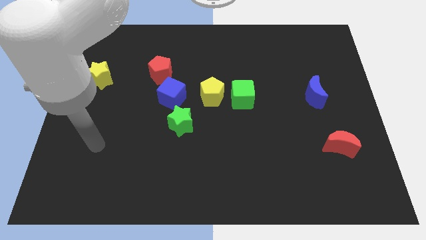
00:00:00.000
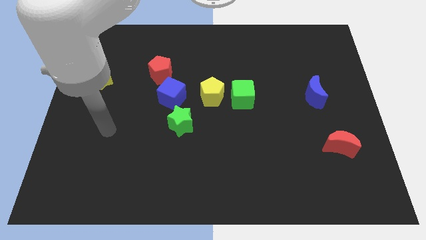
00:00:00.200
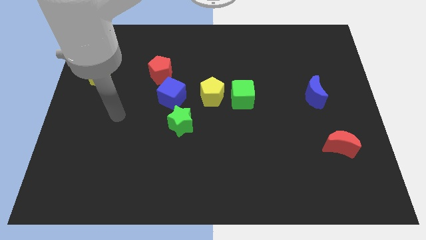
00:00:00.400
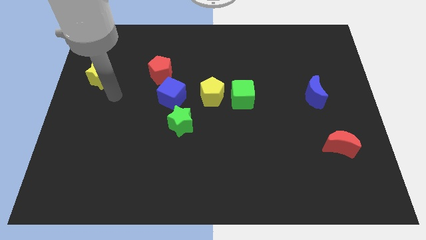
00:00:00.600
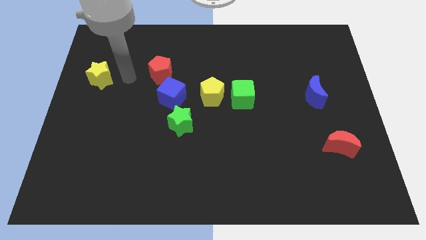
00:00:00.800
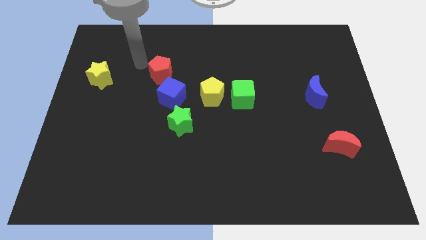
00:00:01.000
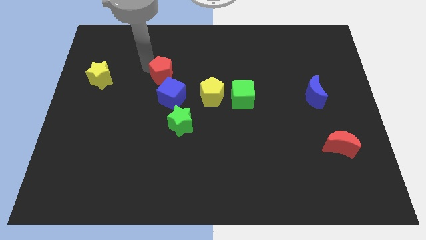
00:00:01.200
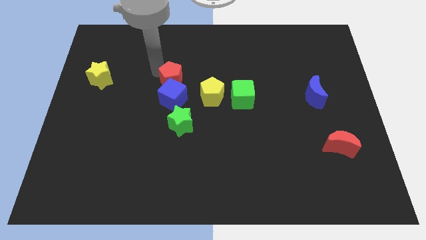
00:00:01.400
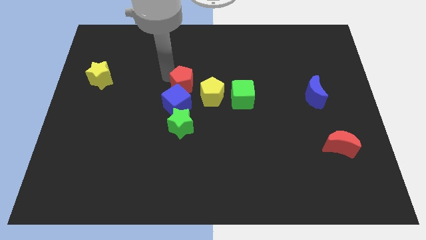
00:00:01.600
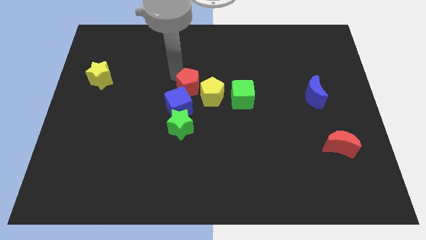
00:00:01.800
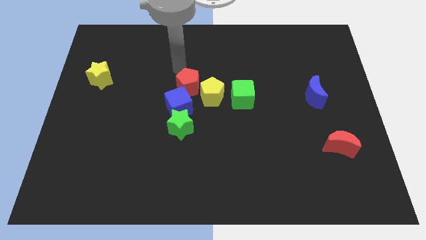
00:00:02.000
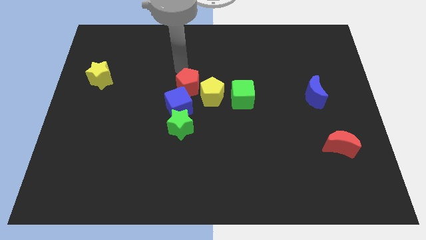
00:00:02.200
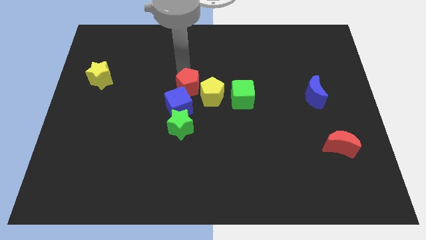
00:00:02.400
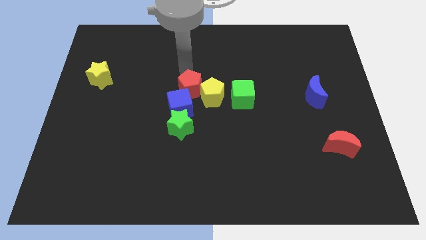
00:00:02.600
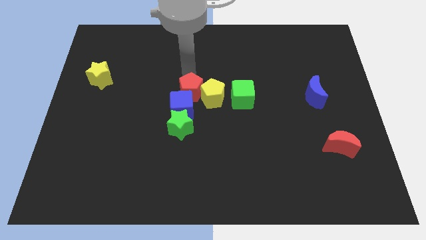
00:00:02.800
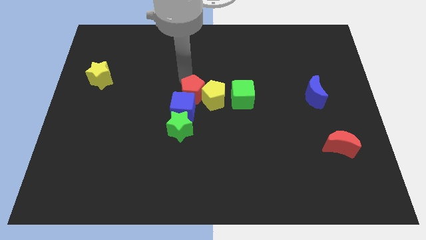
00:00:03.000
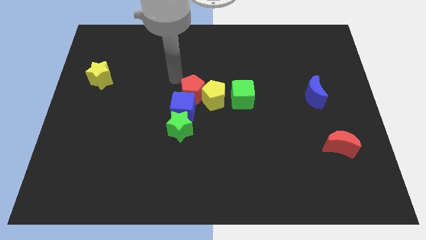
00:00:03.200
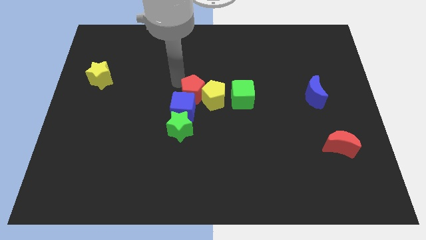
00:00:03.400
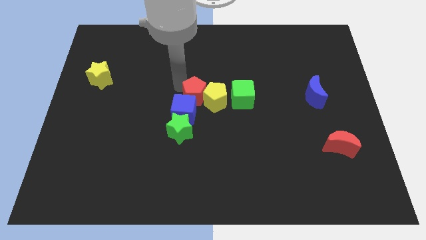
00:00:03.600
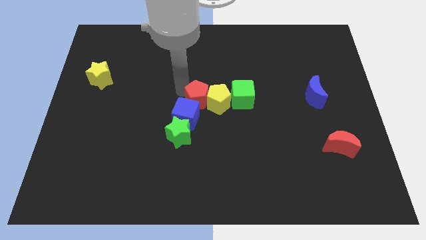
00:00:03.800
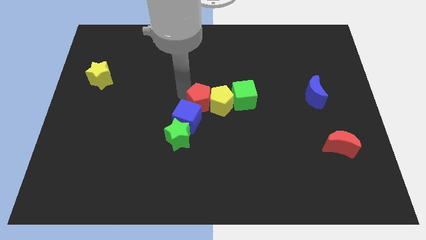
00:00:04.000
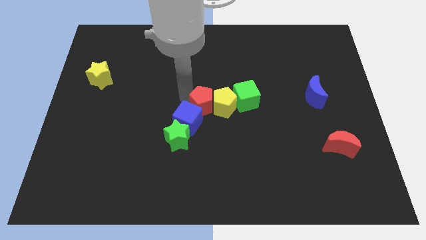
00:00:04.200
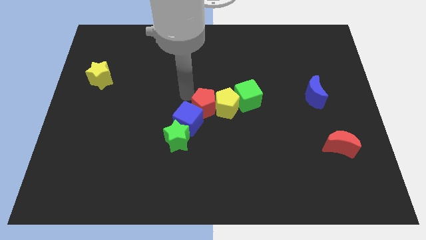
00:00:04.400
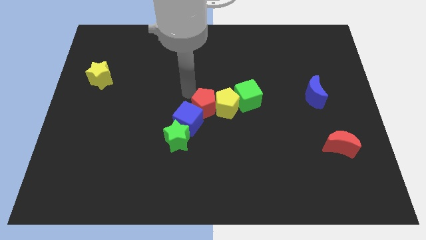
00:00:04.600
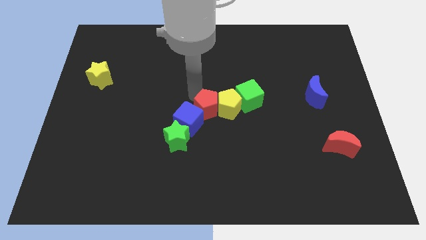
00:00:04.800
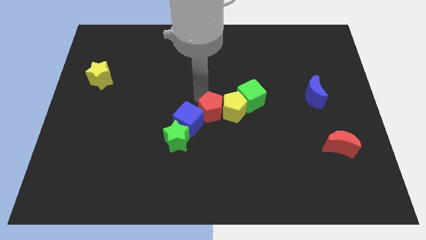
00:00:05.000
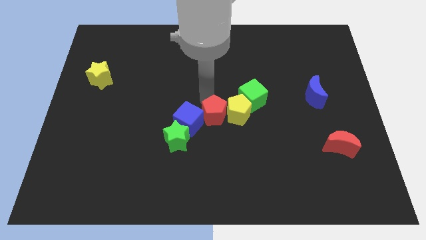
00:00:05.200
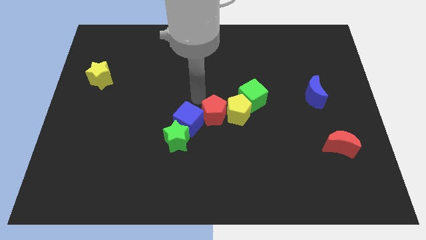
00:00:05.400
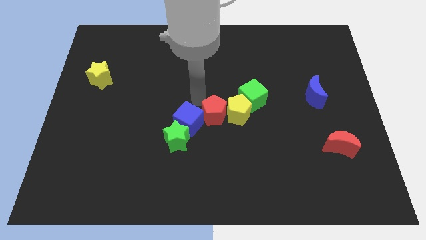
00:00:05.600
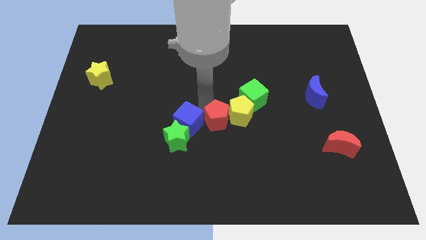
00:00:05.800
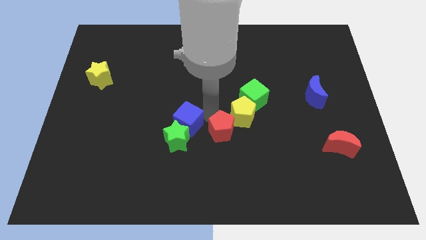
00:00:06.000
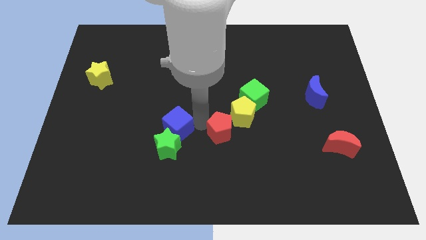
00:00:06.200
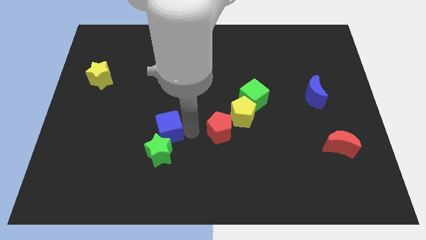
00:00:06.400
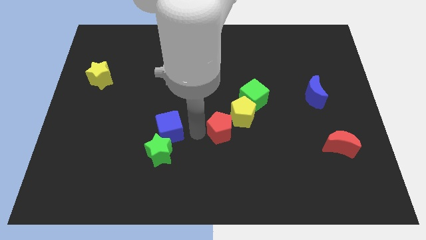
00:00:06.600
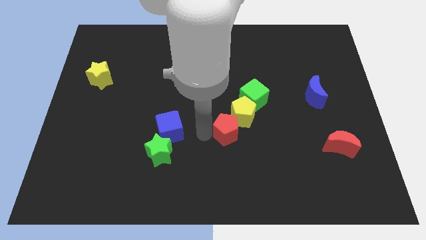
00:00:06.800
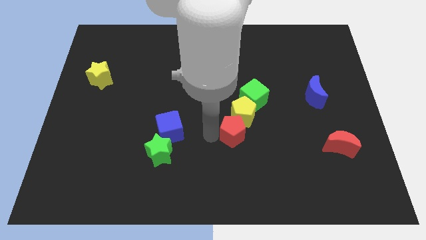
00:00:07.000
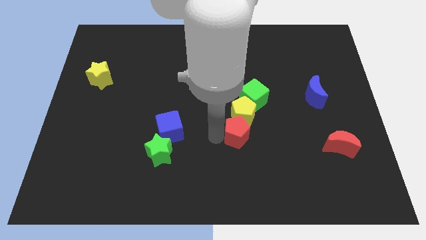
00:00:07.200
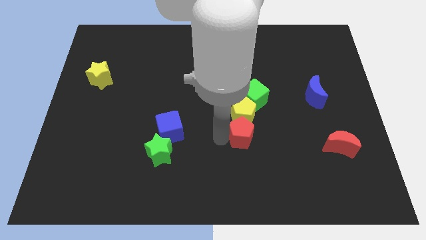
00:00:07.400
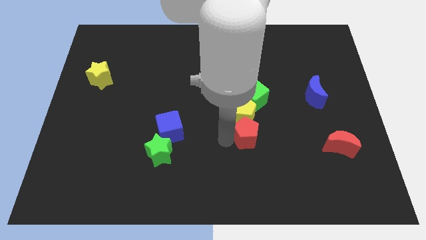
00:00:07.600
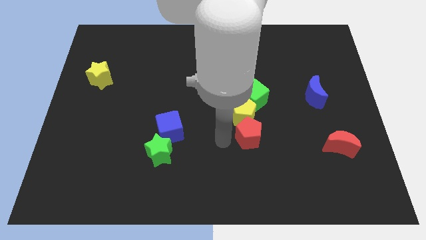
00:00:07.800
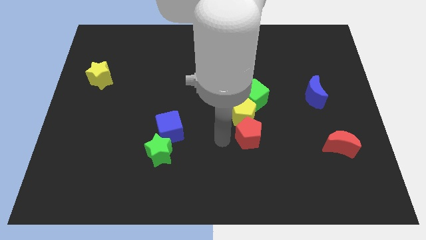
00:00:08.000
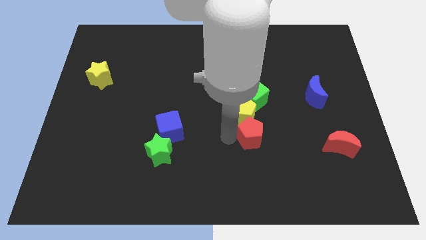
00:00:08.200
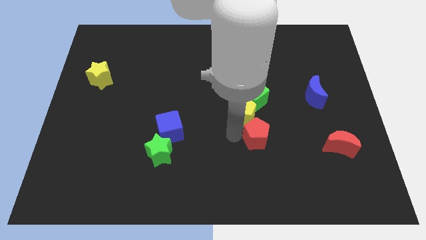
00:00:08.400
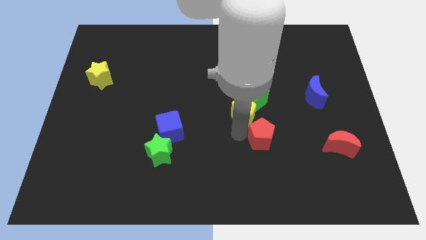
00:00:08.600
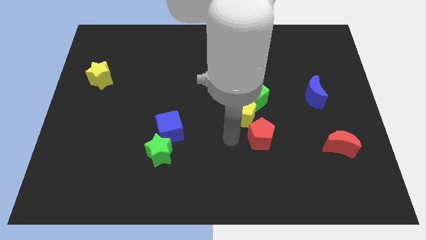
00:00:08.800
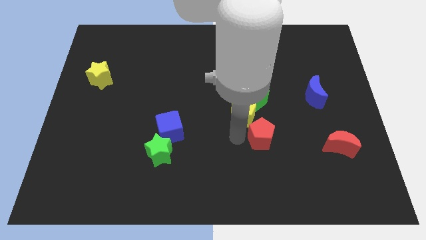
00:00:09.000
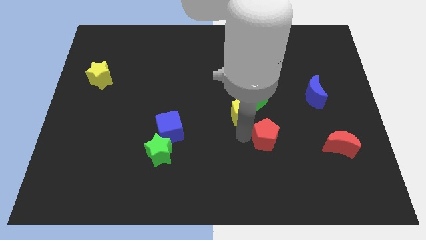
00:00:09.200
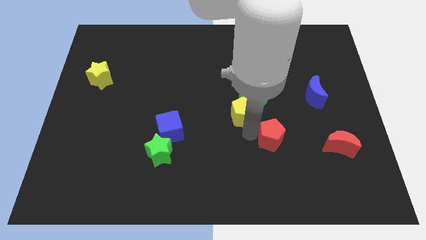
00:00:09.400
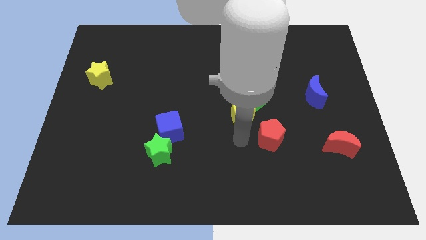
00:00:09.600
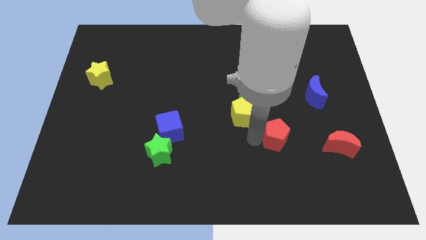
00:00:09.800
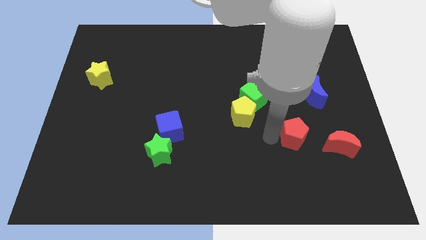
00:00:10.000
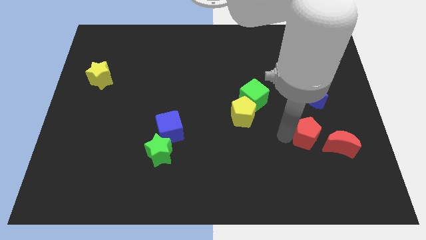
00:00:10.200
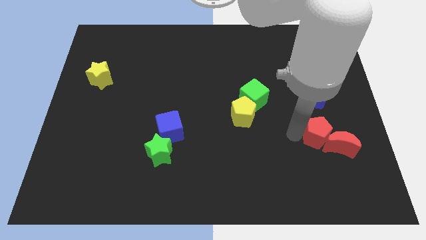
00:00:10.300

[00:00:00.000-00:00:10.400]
push the red pentagon next to the red moon

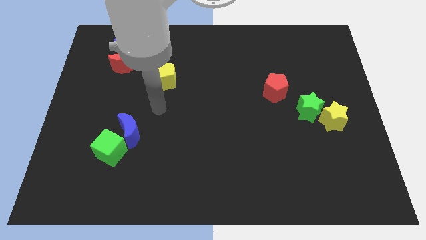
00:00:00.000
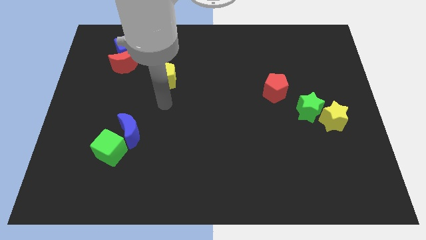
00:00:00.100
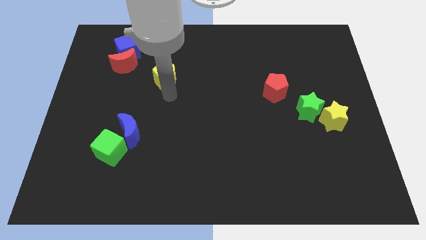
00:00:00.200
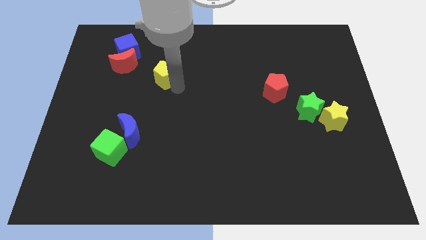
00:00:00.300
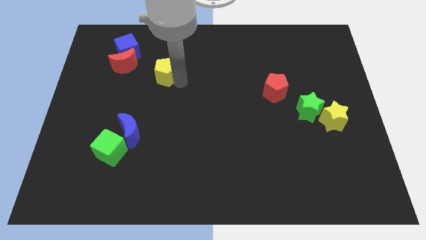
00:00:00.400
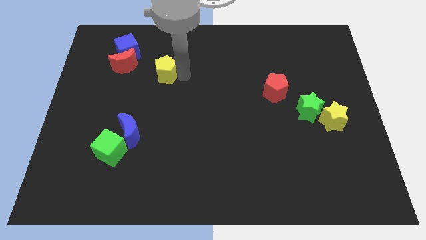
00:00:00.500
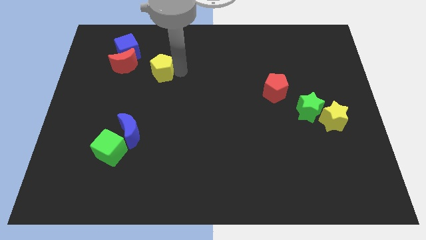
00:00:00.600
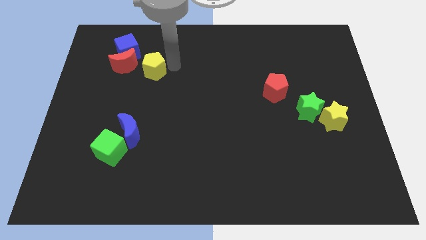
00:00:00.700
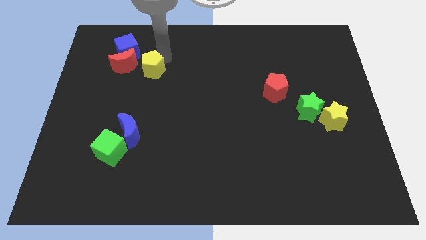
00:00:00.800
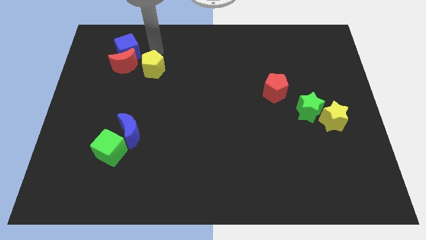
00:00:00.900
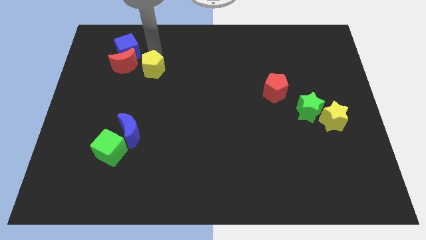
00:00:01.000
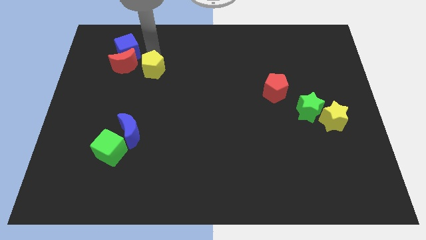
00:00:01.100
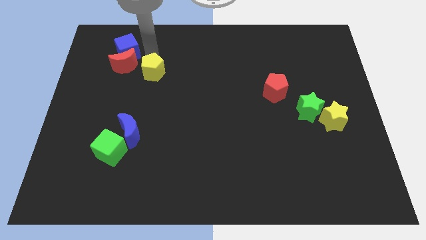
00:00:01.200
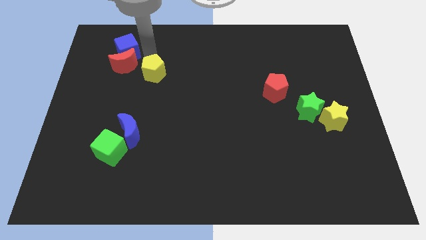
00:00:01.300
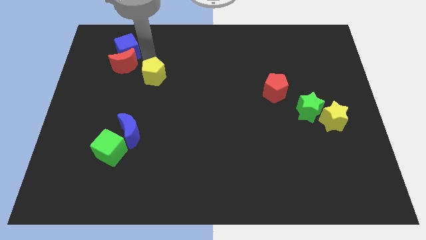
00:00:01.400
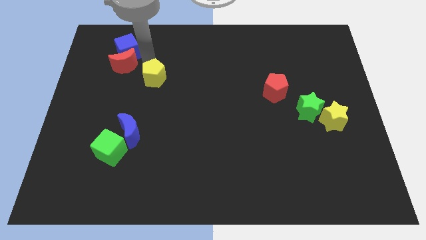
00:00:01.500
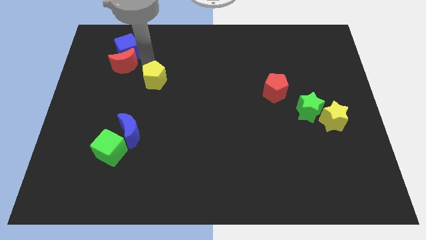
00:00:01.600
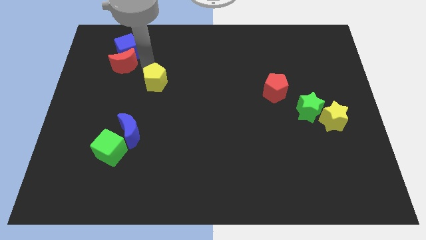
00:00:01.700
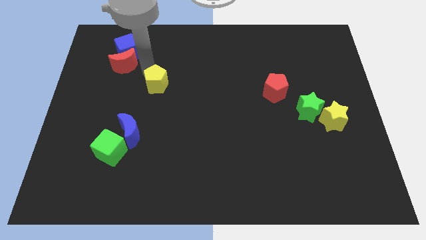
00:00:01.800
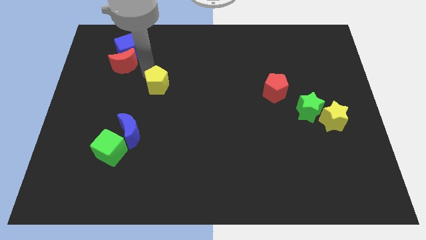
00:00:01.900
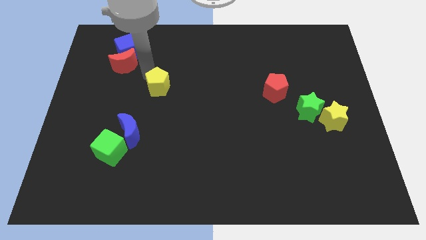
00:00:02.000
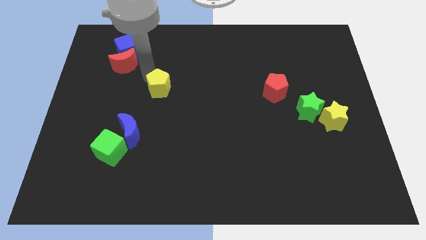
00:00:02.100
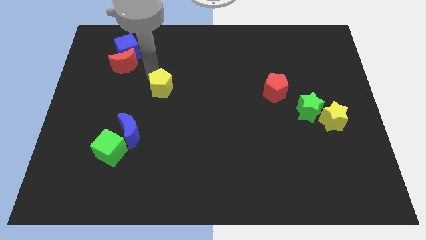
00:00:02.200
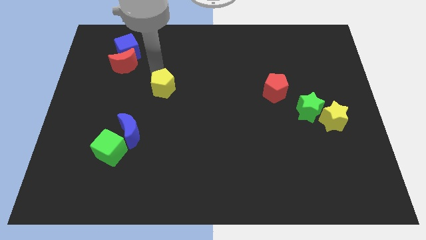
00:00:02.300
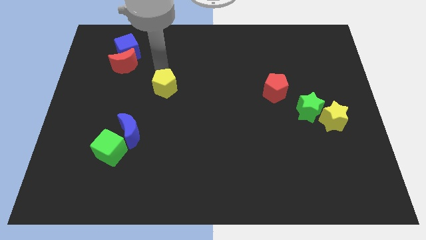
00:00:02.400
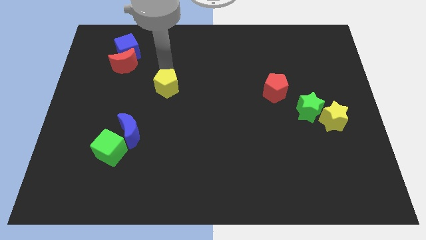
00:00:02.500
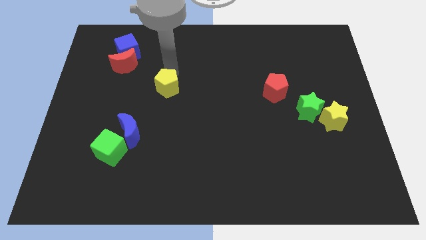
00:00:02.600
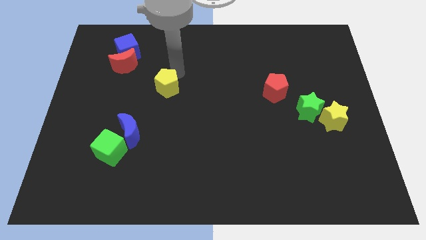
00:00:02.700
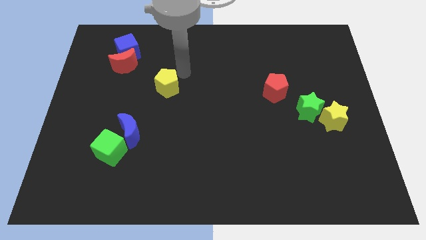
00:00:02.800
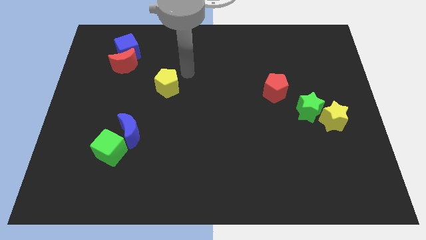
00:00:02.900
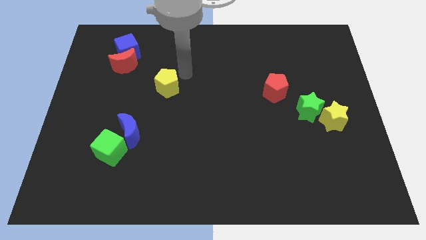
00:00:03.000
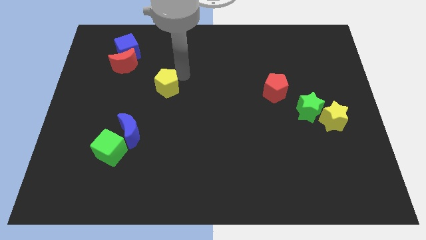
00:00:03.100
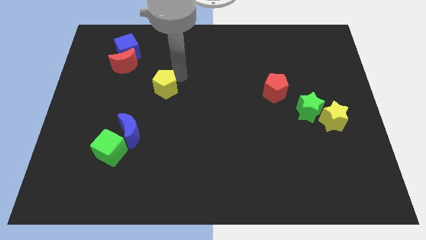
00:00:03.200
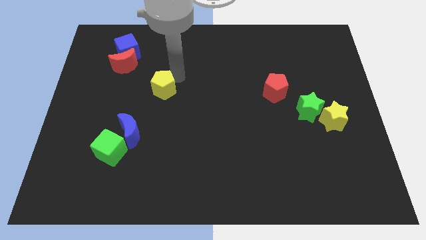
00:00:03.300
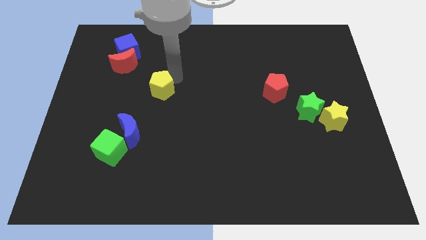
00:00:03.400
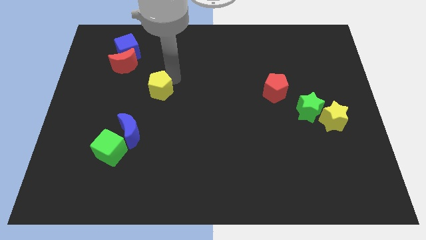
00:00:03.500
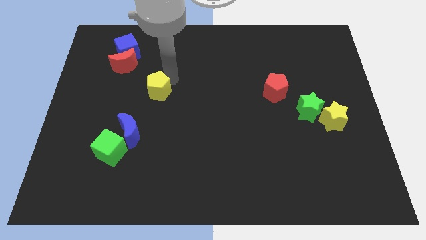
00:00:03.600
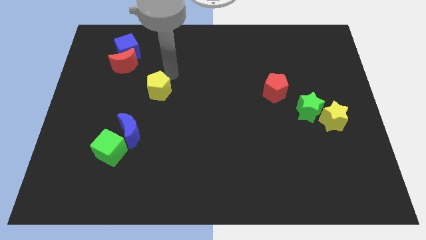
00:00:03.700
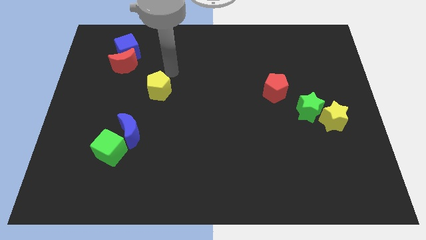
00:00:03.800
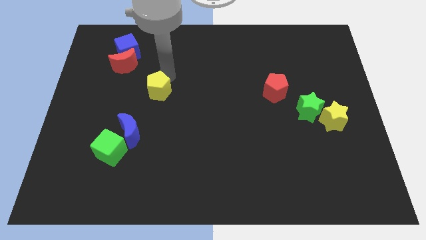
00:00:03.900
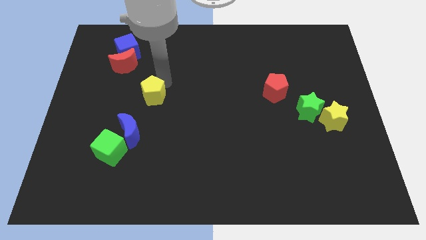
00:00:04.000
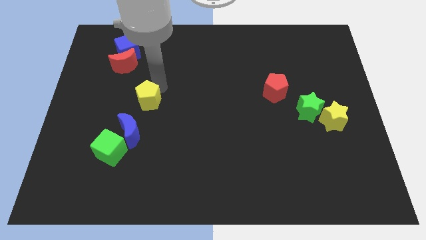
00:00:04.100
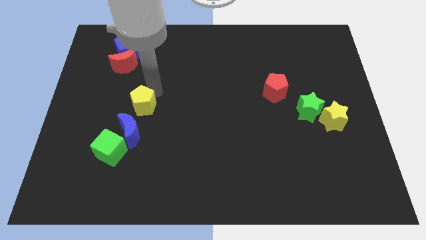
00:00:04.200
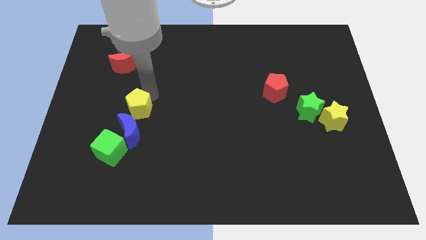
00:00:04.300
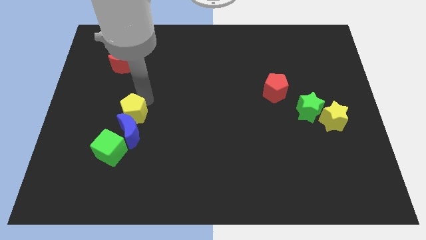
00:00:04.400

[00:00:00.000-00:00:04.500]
push the yellow pentagon towards the blue moon
